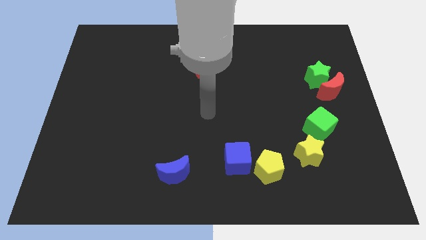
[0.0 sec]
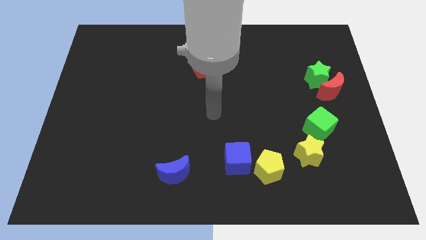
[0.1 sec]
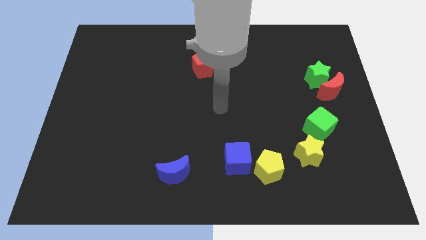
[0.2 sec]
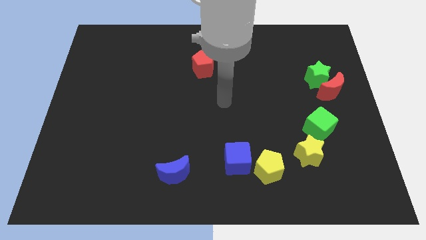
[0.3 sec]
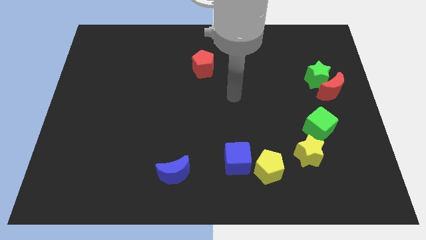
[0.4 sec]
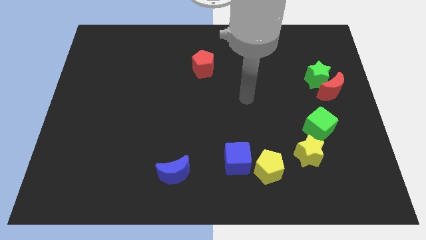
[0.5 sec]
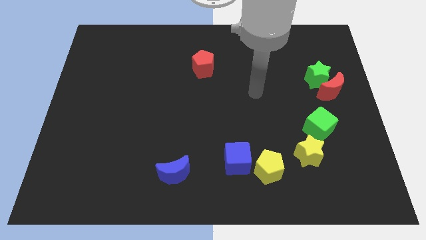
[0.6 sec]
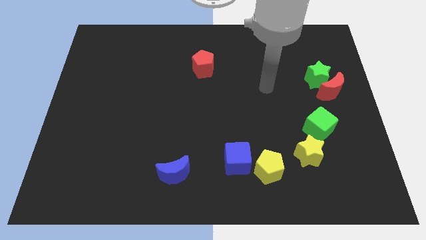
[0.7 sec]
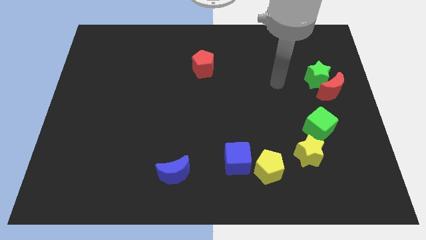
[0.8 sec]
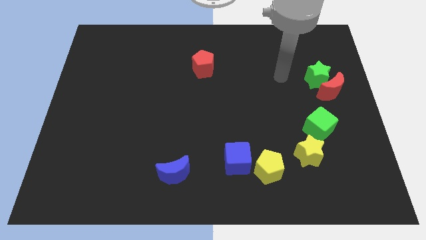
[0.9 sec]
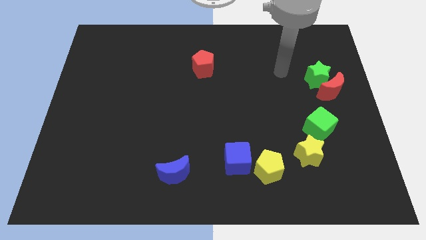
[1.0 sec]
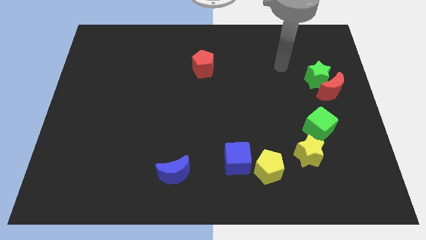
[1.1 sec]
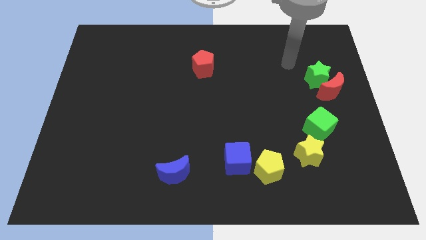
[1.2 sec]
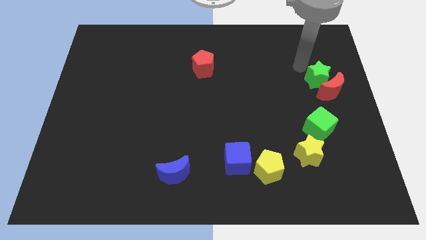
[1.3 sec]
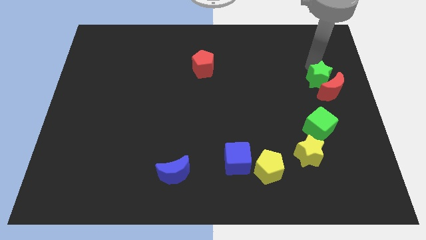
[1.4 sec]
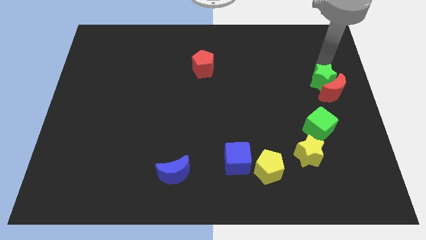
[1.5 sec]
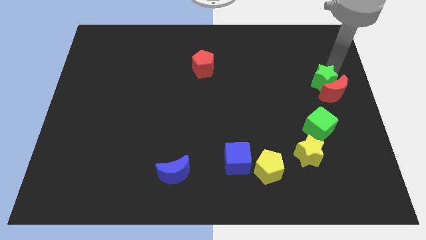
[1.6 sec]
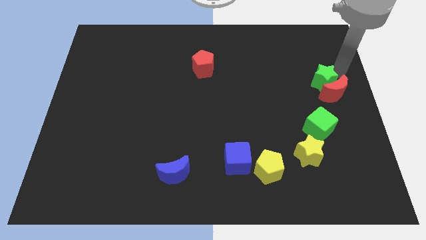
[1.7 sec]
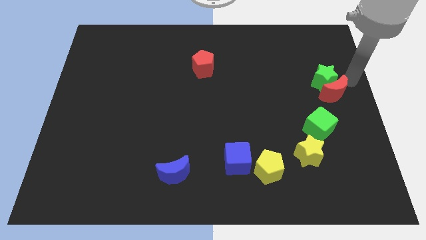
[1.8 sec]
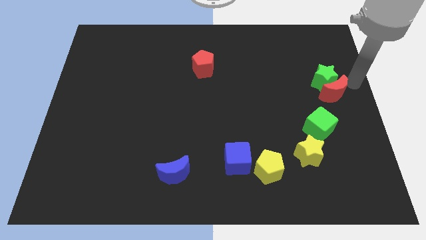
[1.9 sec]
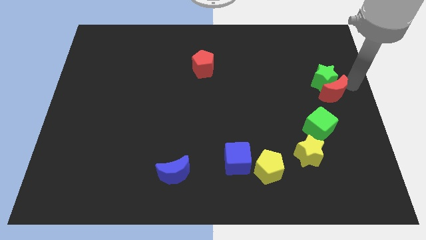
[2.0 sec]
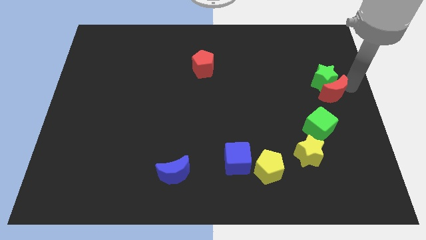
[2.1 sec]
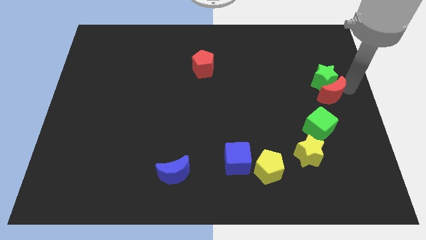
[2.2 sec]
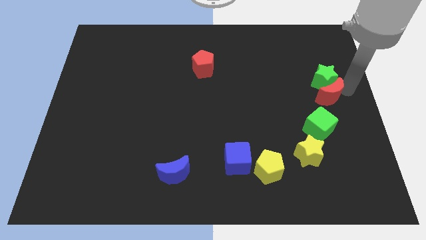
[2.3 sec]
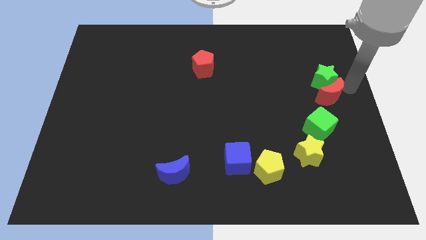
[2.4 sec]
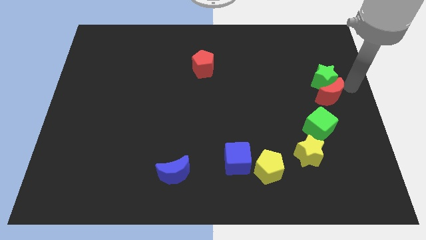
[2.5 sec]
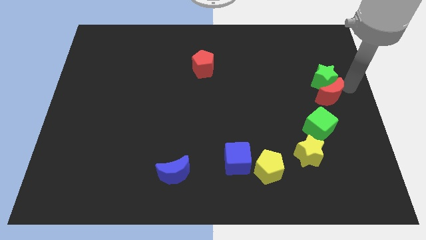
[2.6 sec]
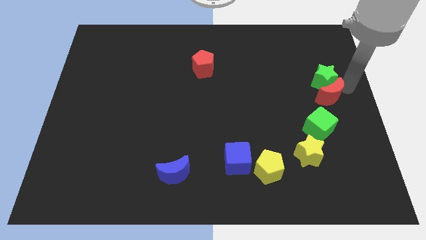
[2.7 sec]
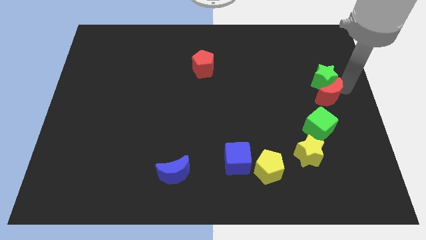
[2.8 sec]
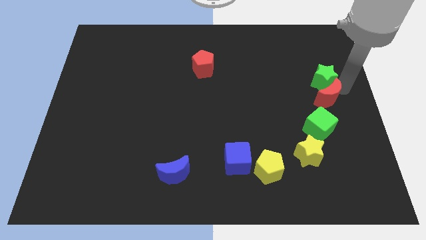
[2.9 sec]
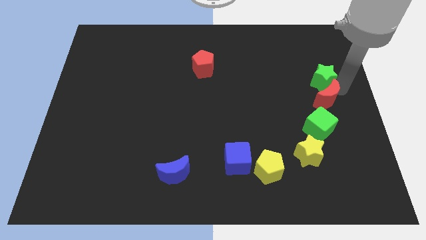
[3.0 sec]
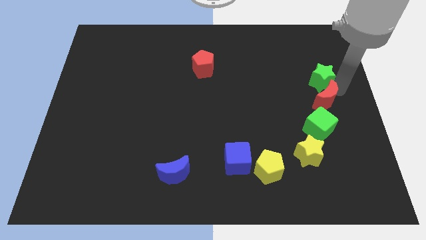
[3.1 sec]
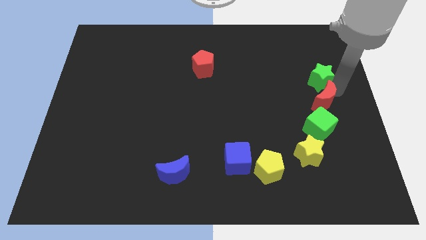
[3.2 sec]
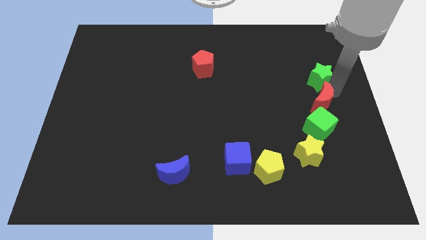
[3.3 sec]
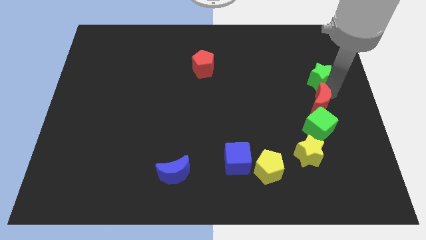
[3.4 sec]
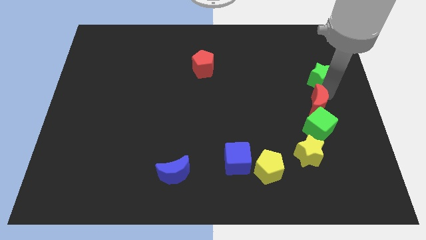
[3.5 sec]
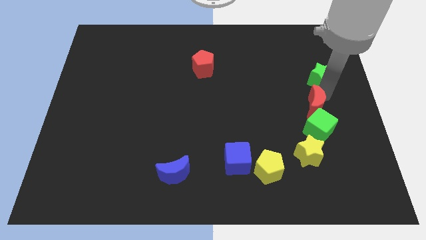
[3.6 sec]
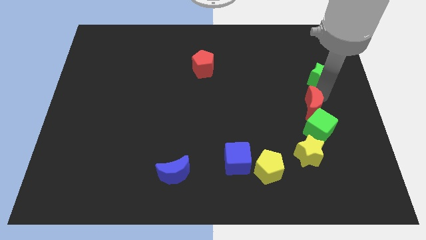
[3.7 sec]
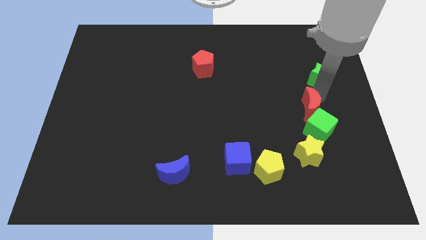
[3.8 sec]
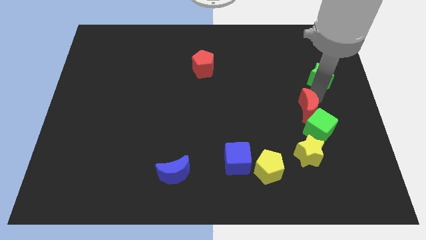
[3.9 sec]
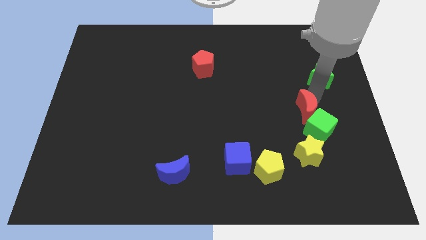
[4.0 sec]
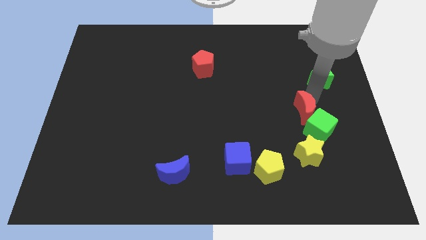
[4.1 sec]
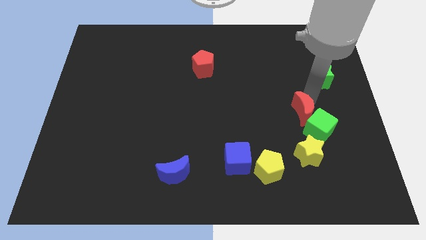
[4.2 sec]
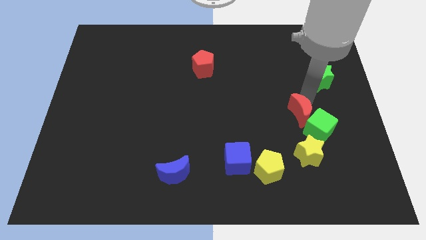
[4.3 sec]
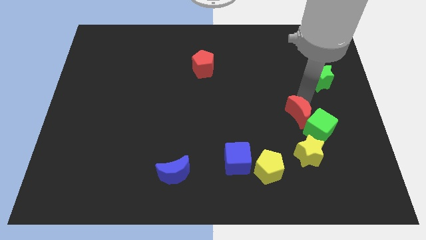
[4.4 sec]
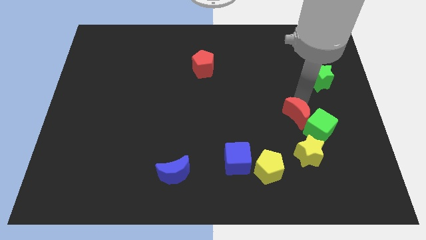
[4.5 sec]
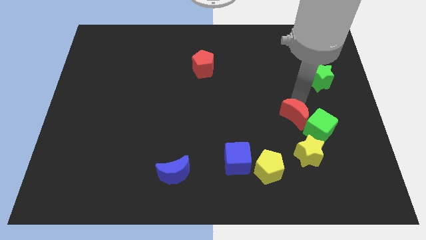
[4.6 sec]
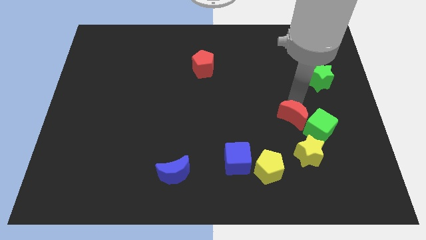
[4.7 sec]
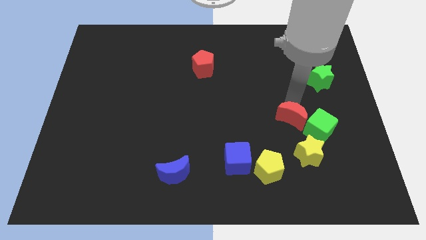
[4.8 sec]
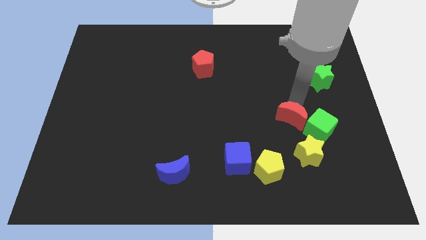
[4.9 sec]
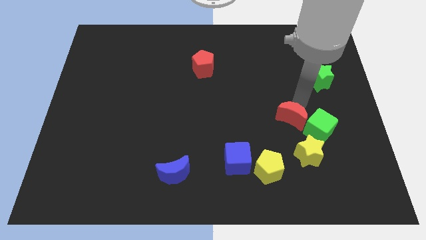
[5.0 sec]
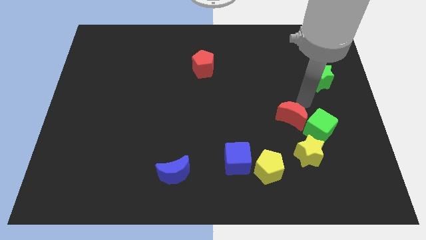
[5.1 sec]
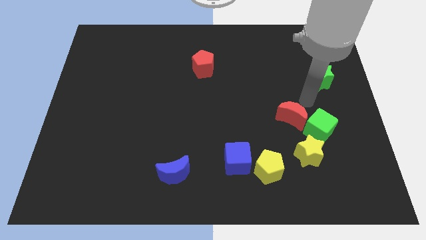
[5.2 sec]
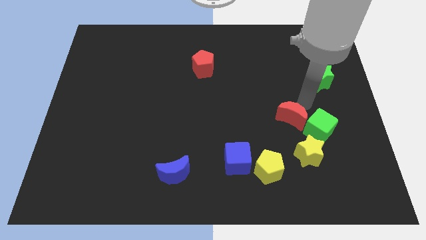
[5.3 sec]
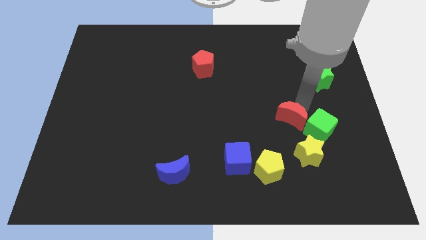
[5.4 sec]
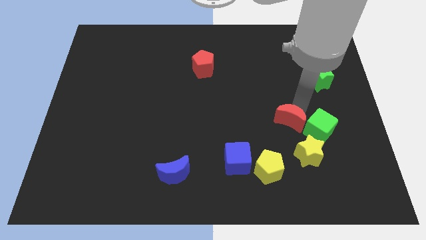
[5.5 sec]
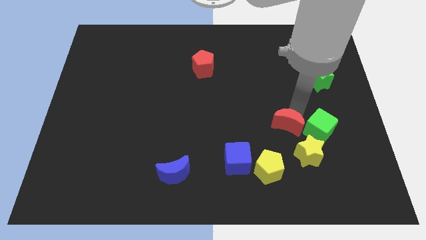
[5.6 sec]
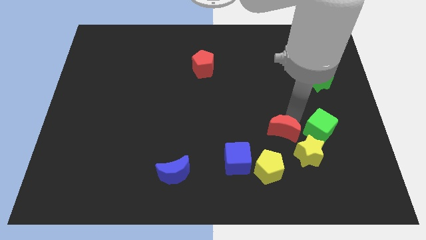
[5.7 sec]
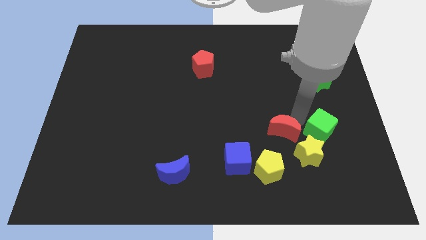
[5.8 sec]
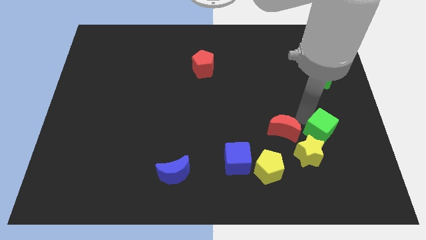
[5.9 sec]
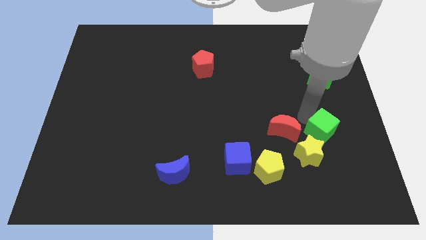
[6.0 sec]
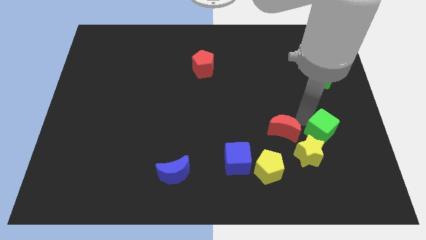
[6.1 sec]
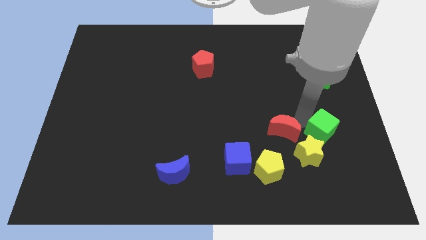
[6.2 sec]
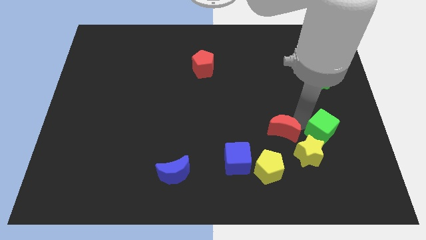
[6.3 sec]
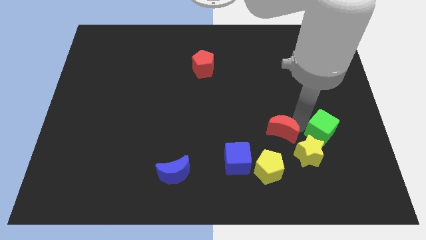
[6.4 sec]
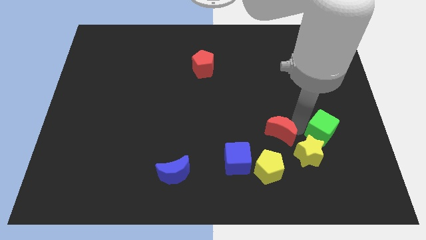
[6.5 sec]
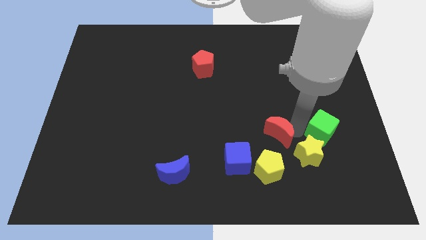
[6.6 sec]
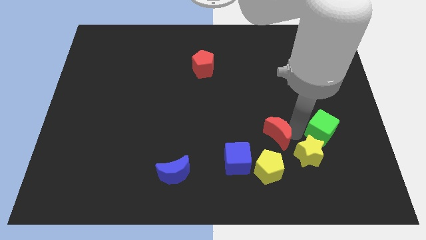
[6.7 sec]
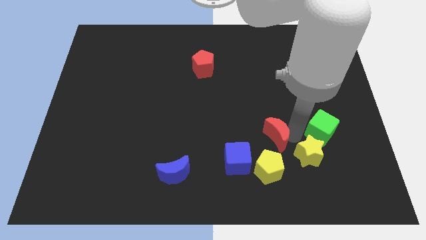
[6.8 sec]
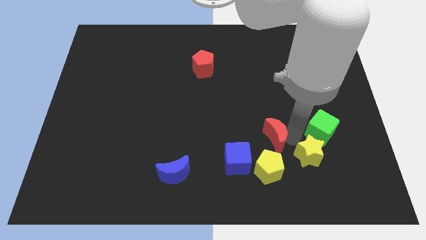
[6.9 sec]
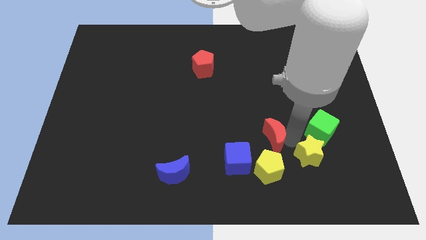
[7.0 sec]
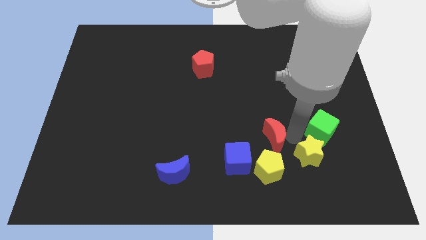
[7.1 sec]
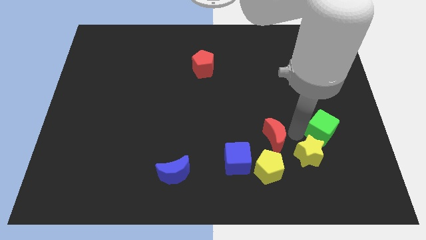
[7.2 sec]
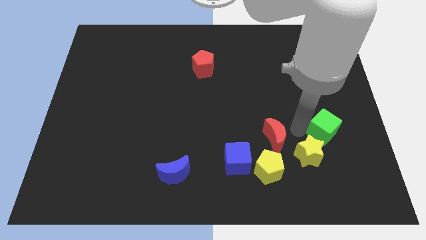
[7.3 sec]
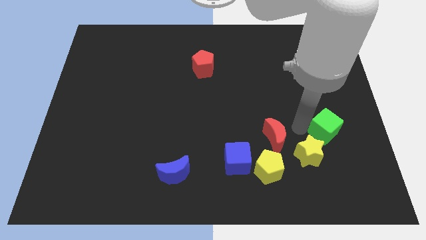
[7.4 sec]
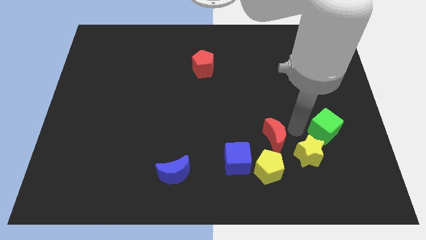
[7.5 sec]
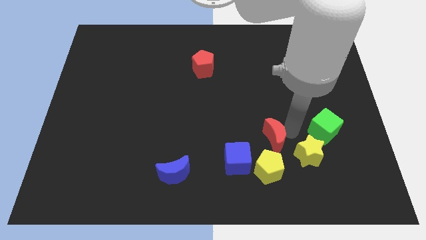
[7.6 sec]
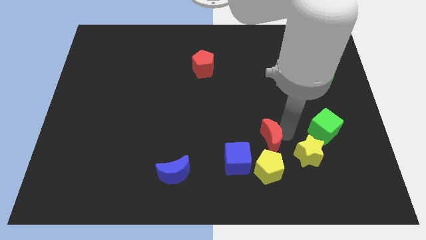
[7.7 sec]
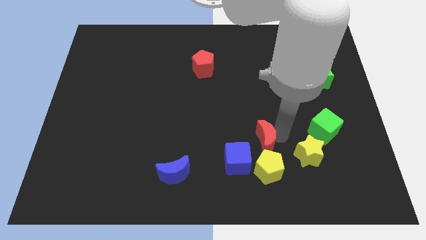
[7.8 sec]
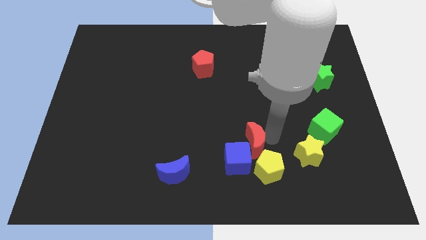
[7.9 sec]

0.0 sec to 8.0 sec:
slide the red moon towards the blue cube

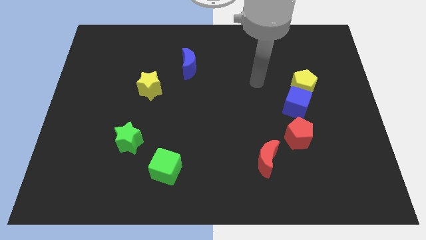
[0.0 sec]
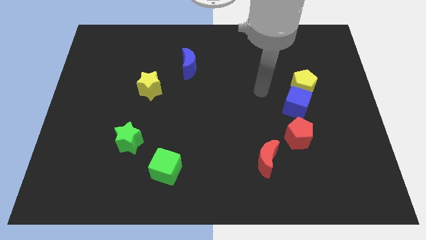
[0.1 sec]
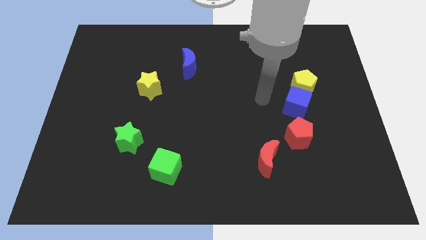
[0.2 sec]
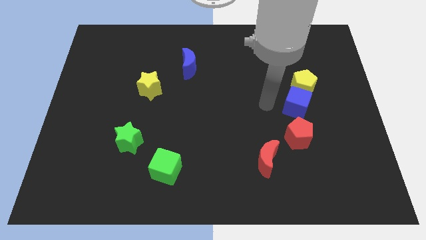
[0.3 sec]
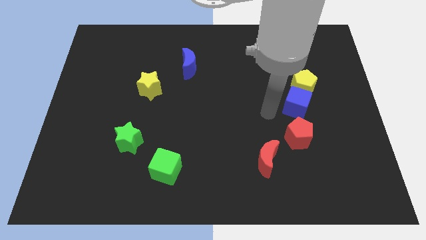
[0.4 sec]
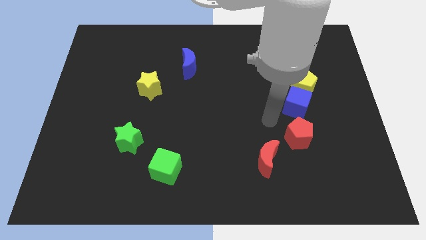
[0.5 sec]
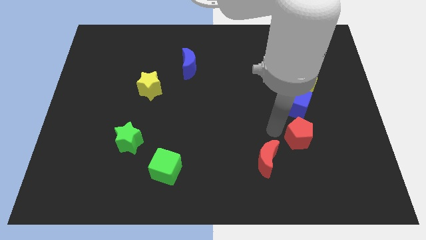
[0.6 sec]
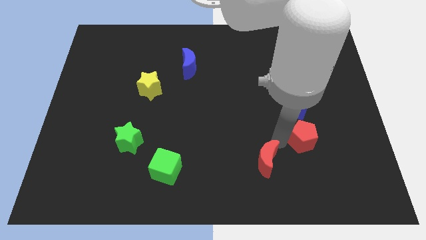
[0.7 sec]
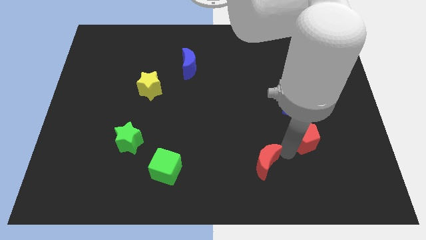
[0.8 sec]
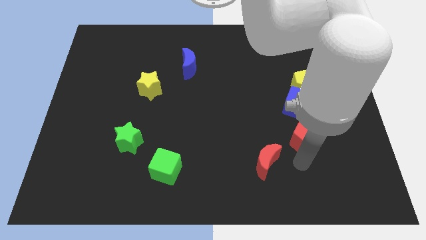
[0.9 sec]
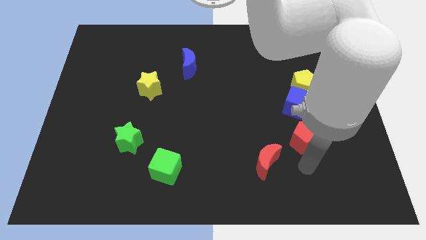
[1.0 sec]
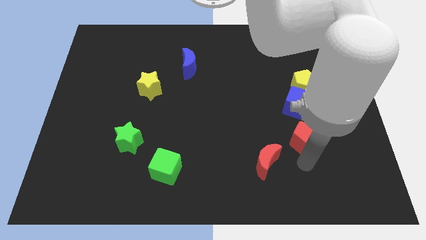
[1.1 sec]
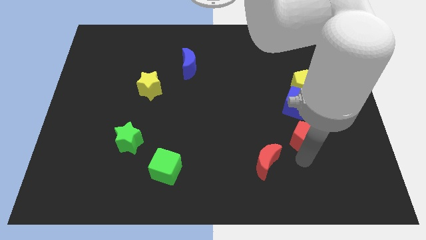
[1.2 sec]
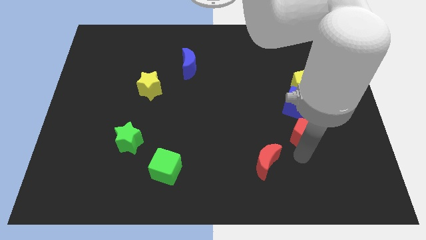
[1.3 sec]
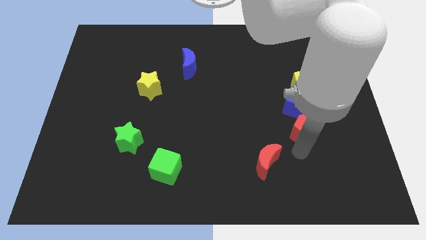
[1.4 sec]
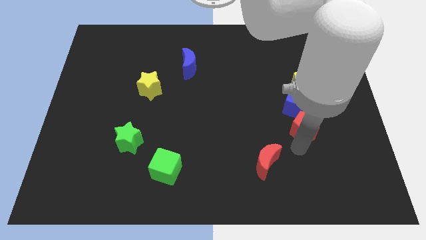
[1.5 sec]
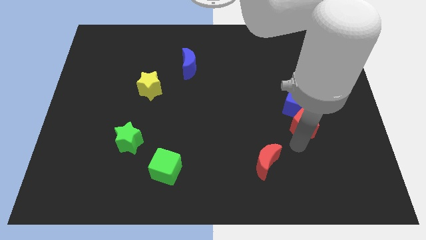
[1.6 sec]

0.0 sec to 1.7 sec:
push the red pentagon to the blue cube
